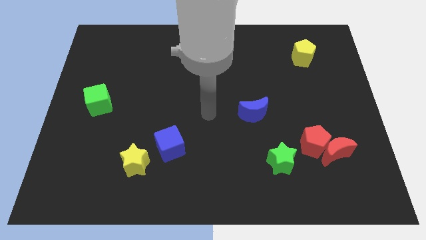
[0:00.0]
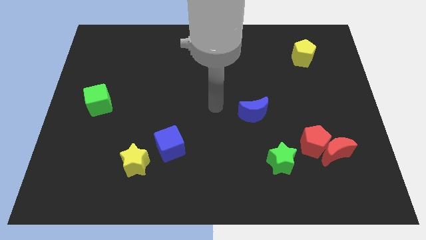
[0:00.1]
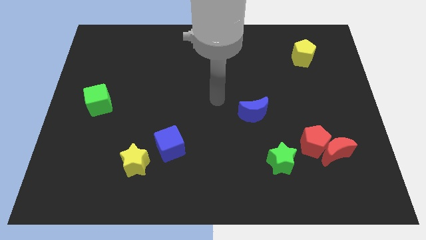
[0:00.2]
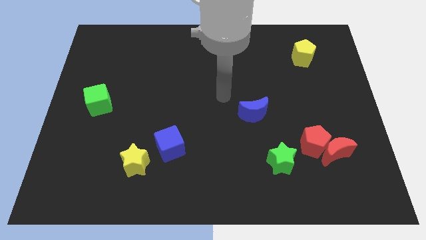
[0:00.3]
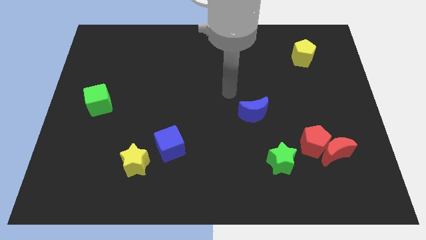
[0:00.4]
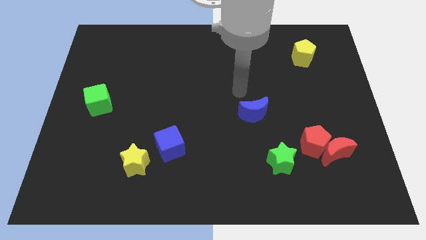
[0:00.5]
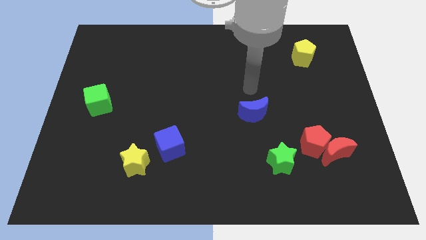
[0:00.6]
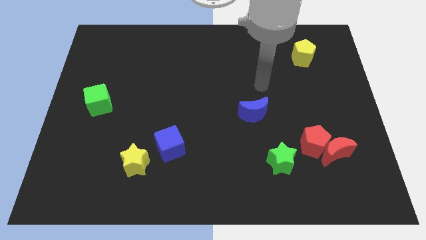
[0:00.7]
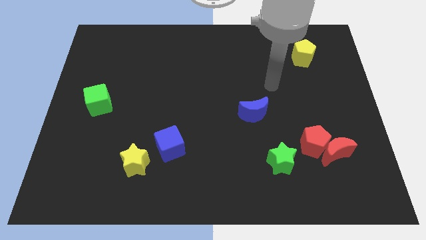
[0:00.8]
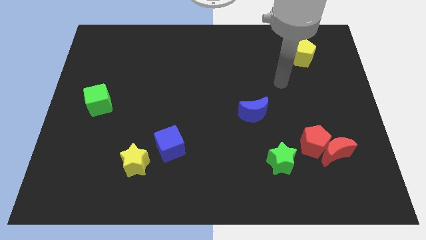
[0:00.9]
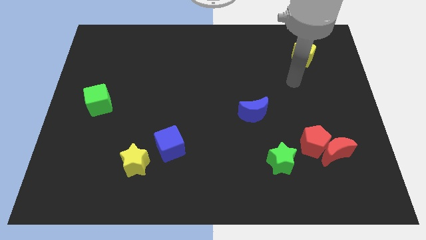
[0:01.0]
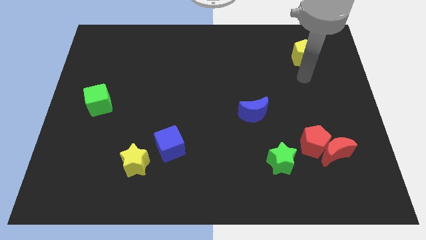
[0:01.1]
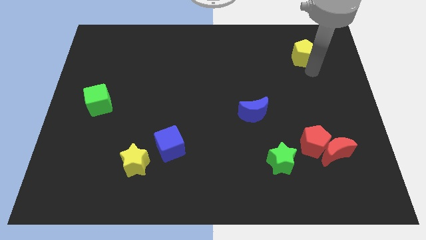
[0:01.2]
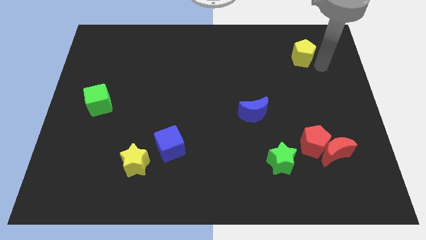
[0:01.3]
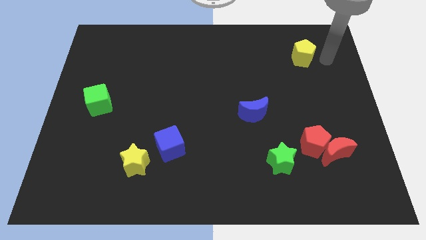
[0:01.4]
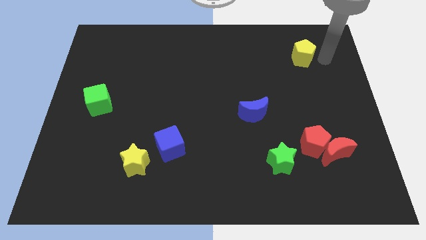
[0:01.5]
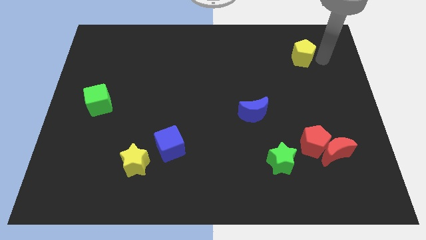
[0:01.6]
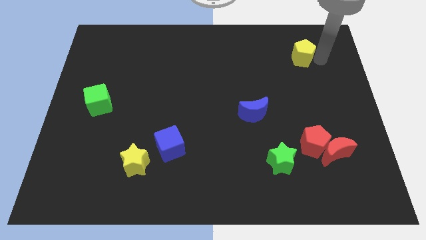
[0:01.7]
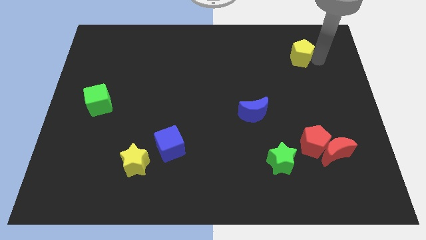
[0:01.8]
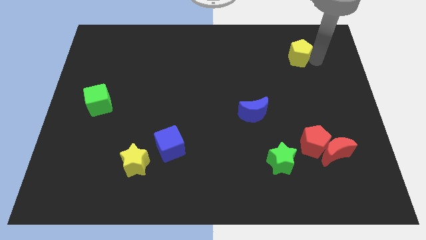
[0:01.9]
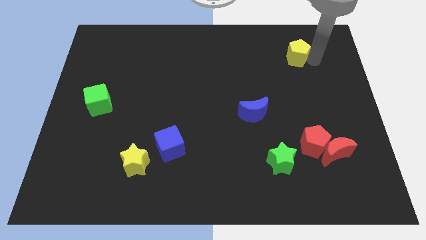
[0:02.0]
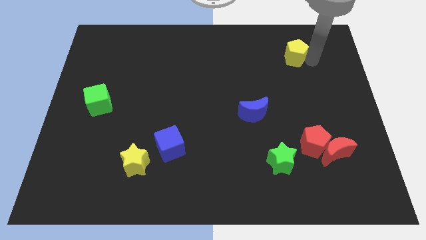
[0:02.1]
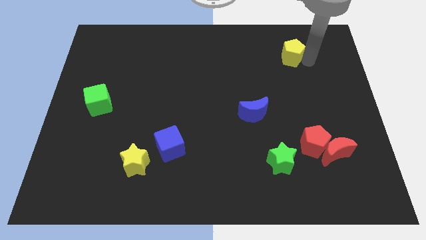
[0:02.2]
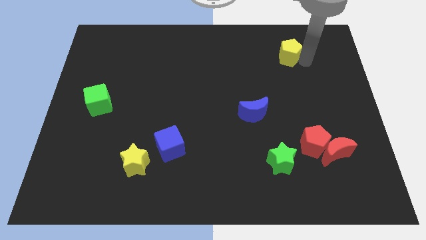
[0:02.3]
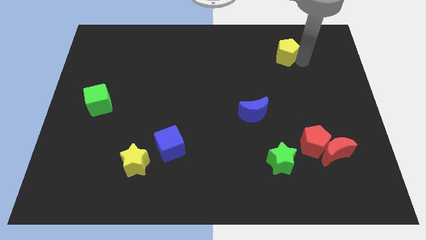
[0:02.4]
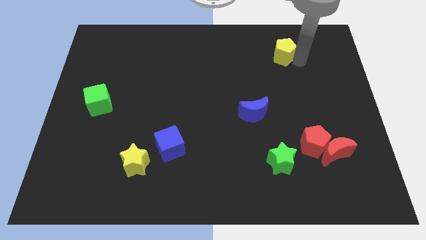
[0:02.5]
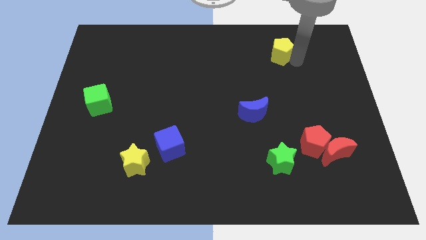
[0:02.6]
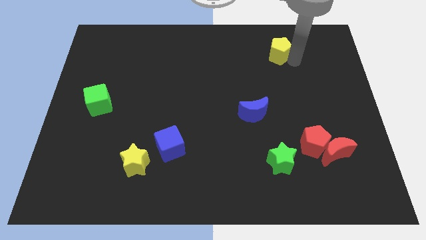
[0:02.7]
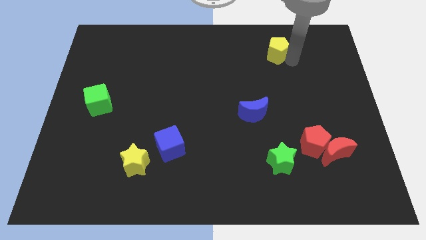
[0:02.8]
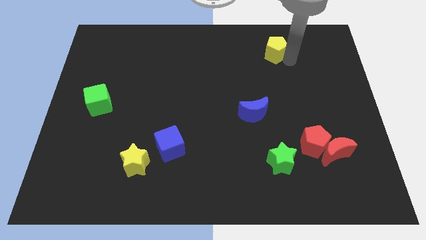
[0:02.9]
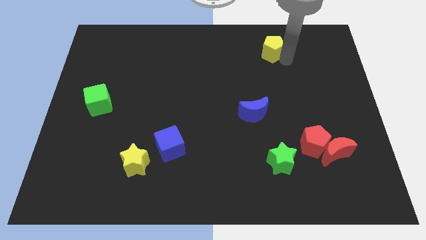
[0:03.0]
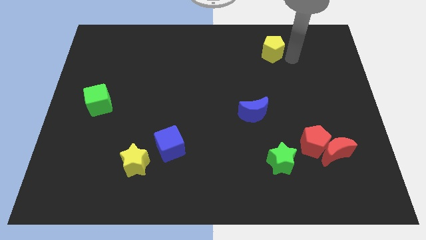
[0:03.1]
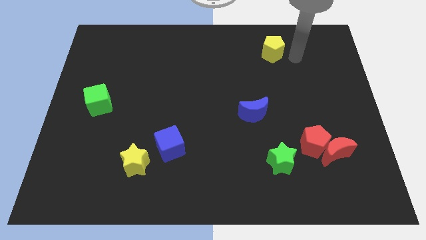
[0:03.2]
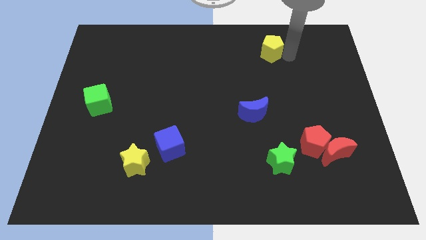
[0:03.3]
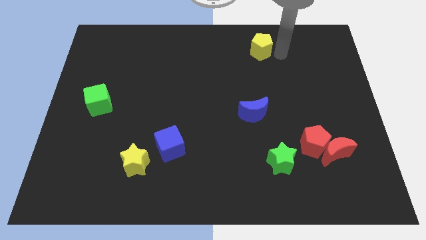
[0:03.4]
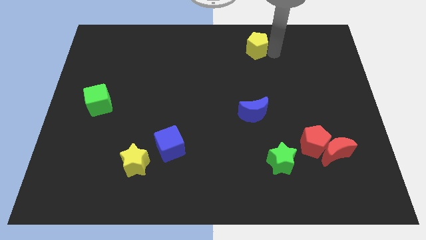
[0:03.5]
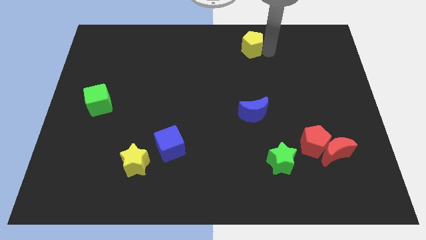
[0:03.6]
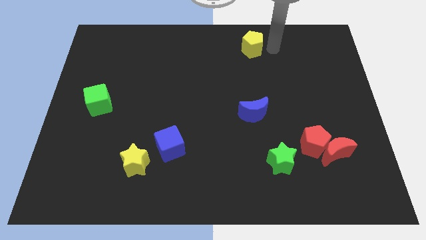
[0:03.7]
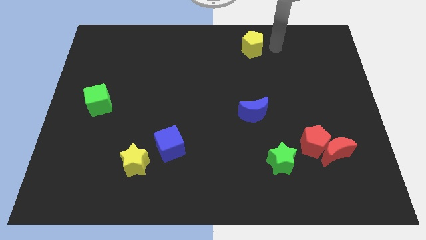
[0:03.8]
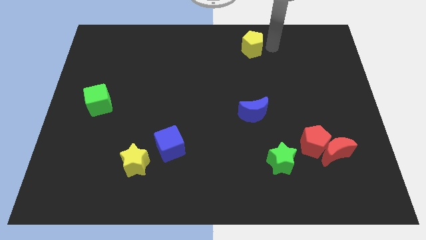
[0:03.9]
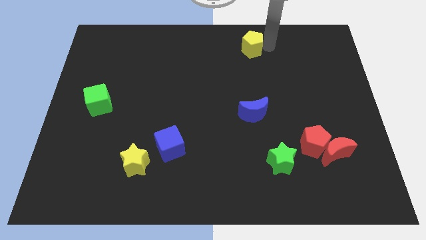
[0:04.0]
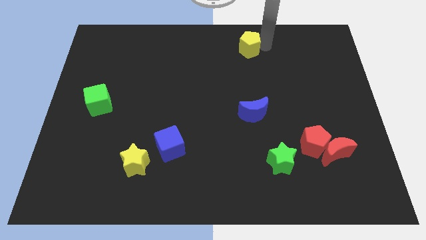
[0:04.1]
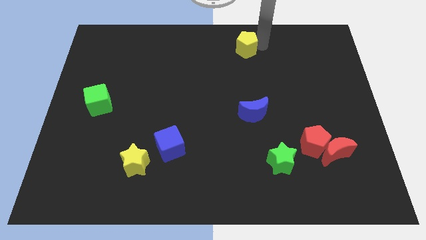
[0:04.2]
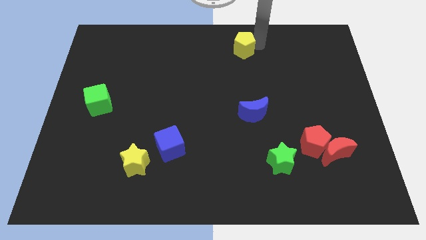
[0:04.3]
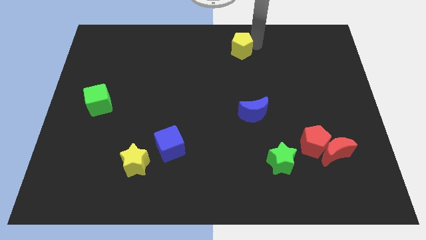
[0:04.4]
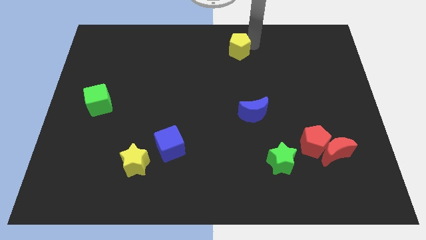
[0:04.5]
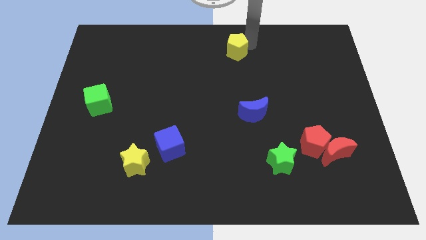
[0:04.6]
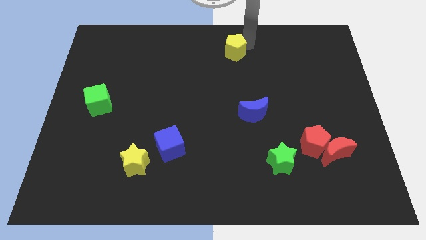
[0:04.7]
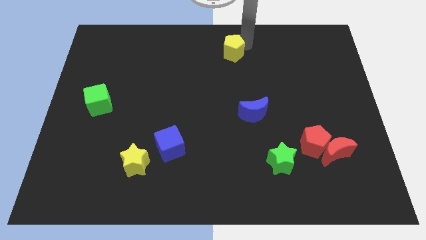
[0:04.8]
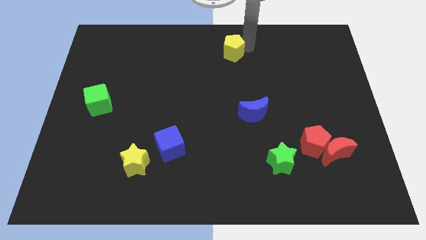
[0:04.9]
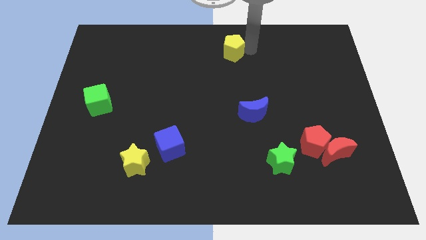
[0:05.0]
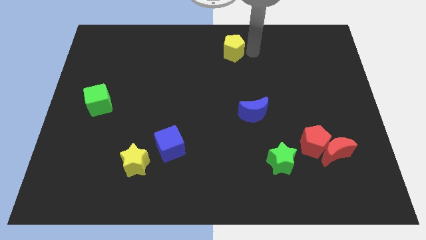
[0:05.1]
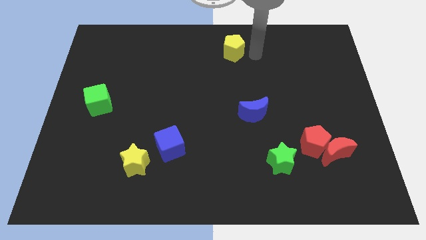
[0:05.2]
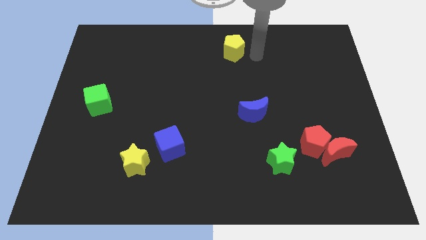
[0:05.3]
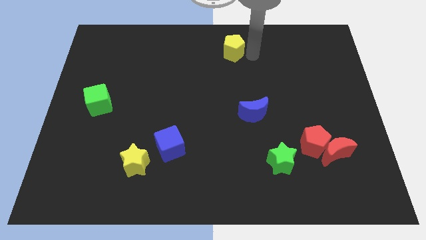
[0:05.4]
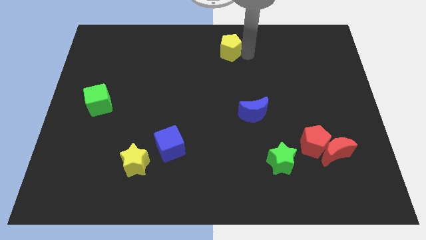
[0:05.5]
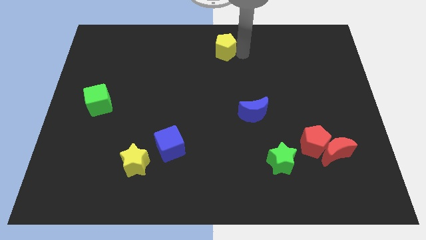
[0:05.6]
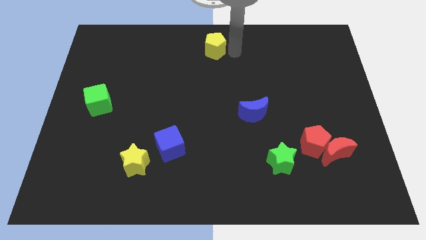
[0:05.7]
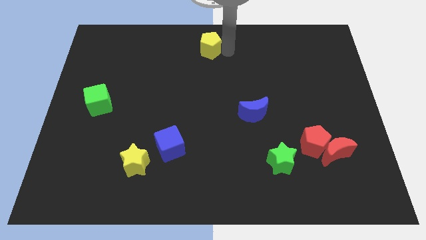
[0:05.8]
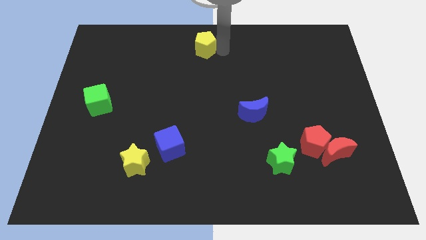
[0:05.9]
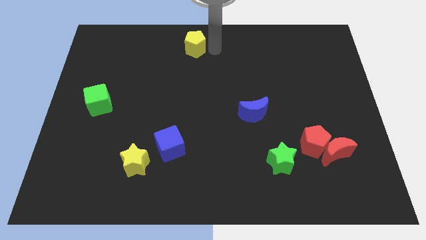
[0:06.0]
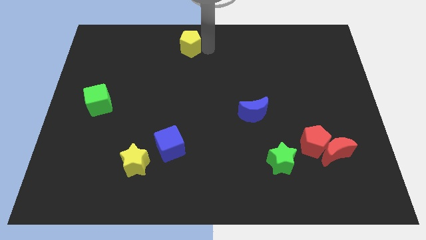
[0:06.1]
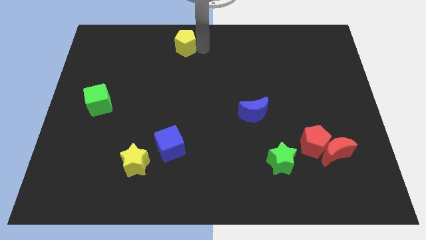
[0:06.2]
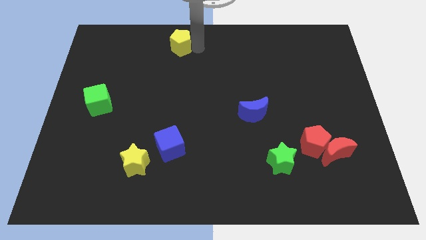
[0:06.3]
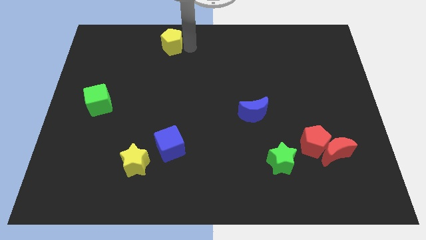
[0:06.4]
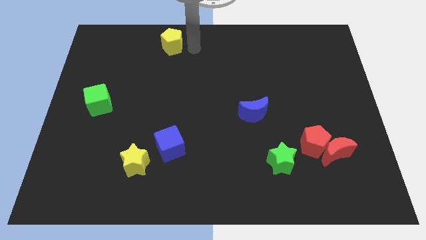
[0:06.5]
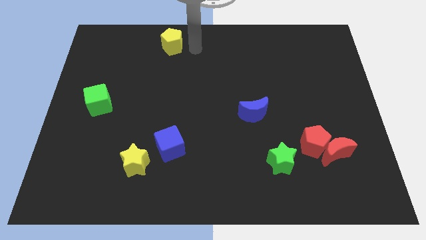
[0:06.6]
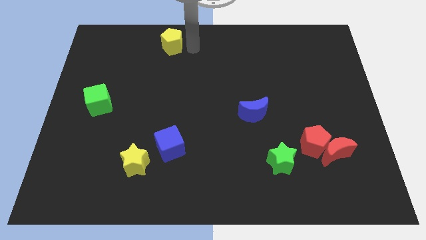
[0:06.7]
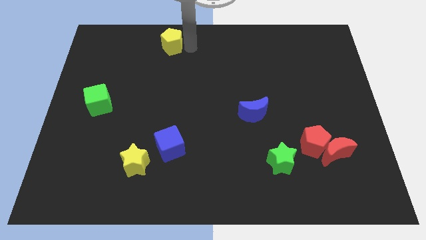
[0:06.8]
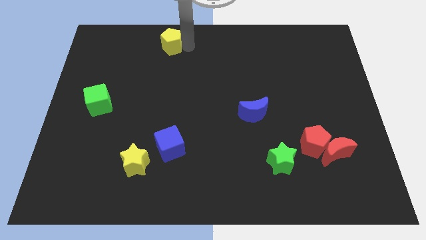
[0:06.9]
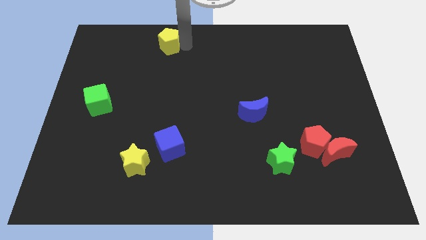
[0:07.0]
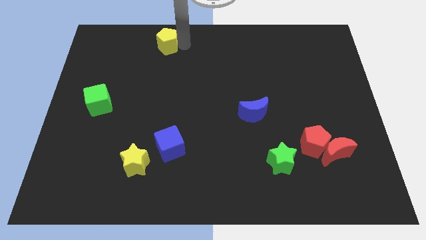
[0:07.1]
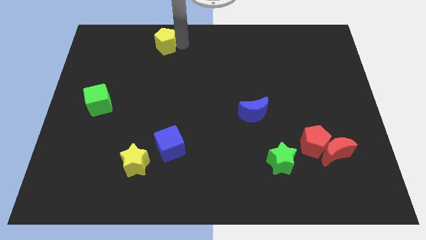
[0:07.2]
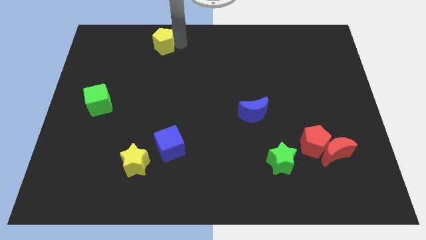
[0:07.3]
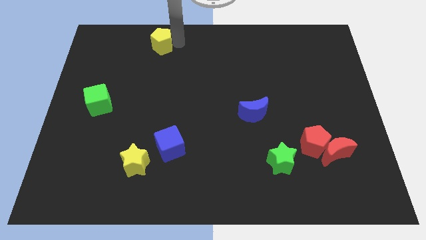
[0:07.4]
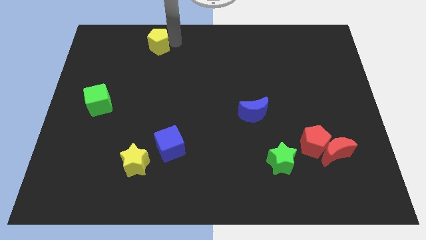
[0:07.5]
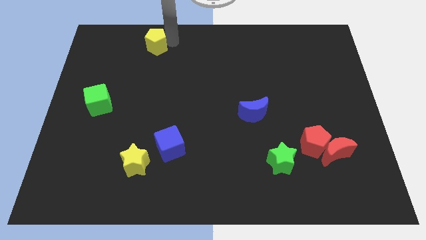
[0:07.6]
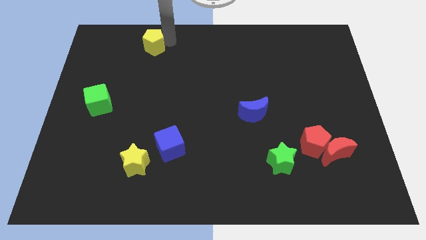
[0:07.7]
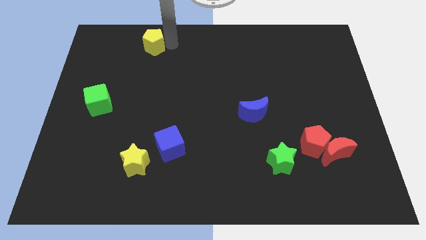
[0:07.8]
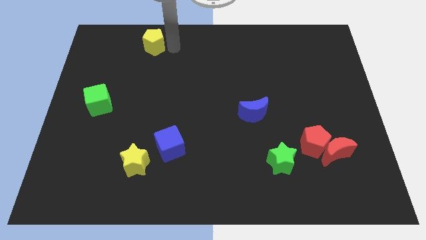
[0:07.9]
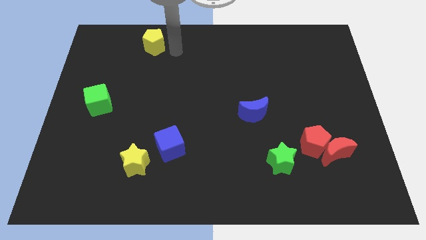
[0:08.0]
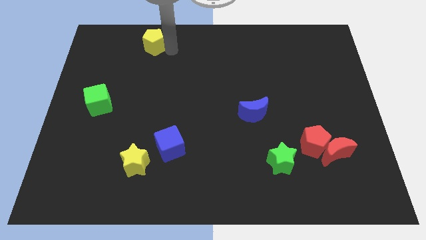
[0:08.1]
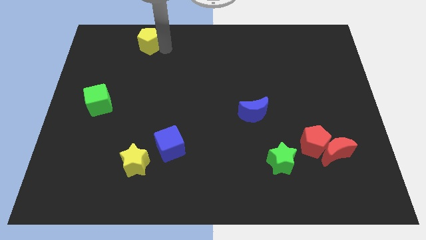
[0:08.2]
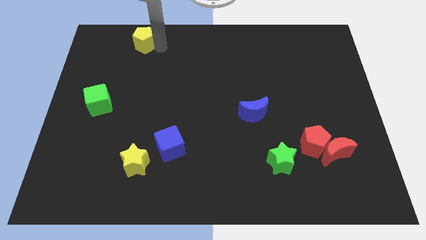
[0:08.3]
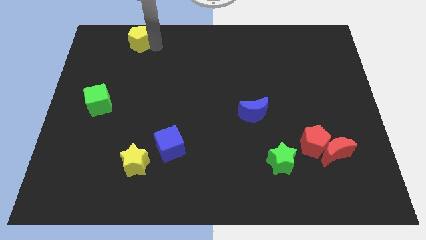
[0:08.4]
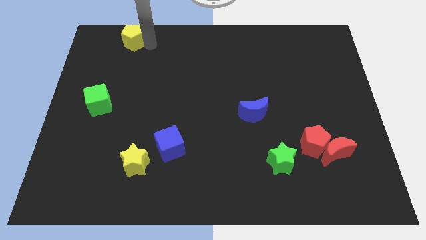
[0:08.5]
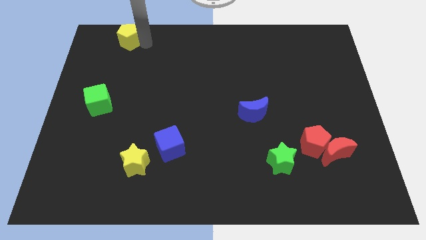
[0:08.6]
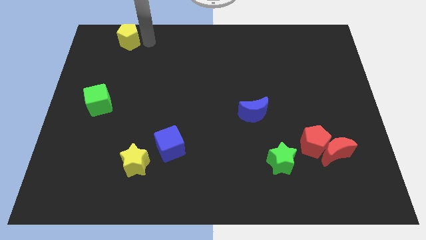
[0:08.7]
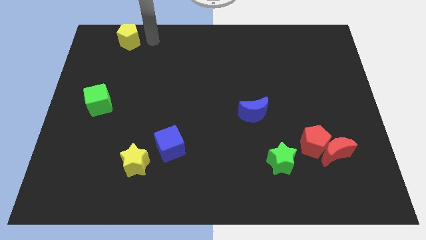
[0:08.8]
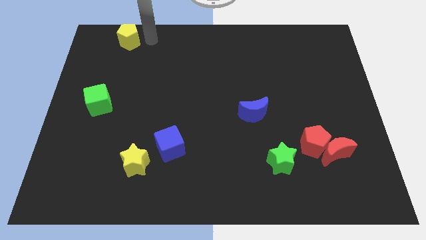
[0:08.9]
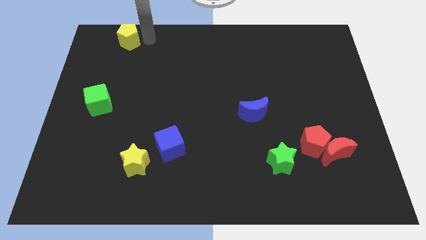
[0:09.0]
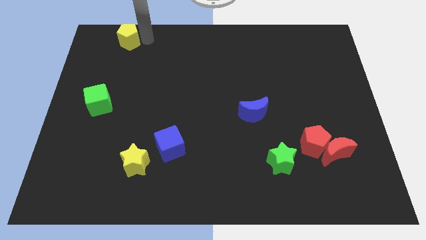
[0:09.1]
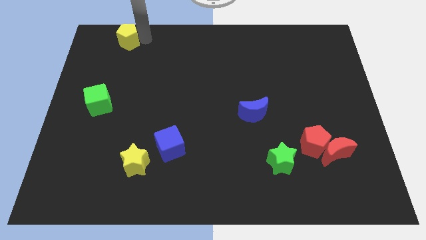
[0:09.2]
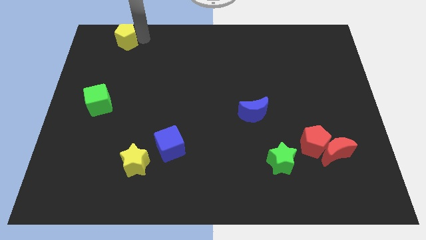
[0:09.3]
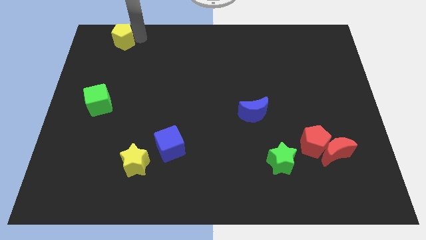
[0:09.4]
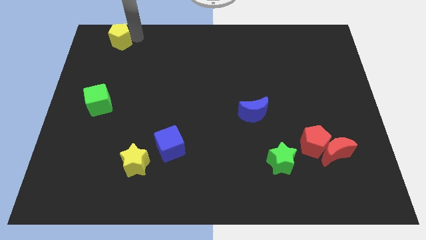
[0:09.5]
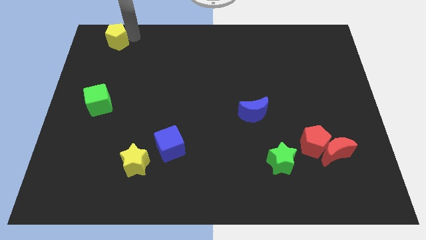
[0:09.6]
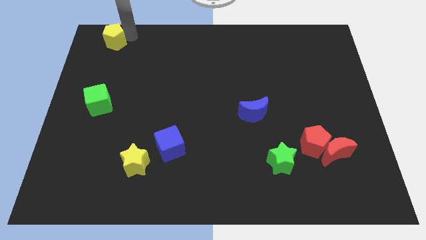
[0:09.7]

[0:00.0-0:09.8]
put the yellow pentagon to the top left
